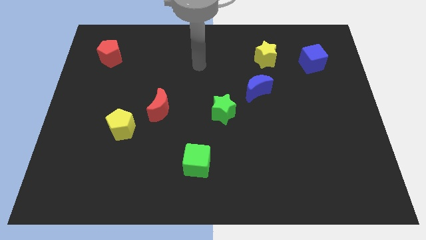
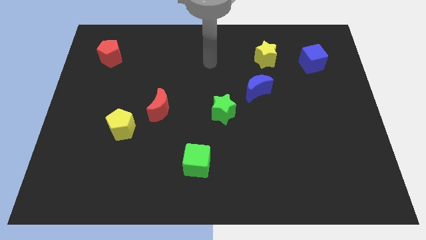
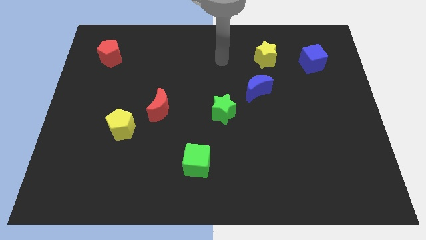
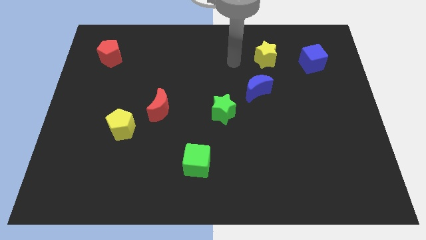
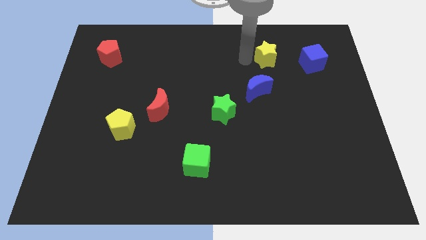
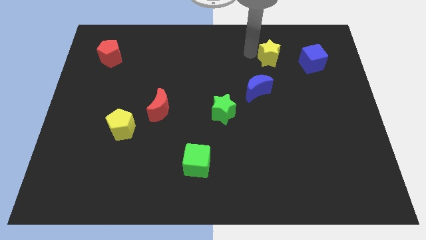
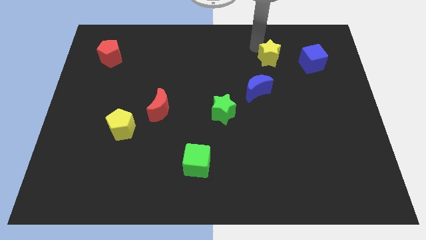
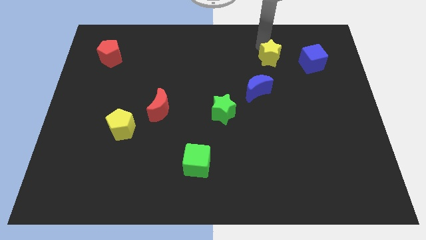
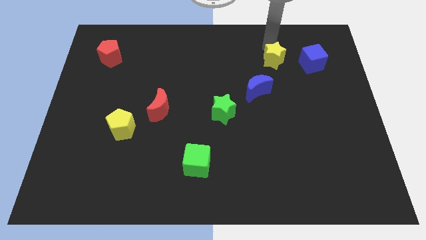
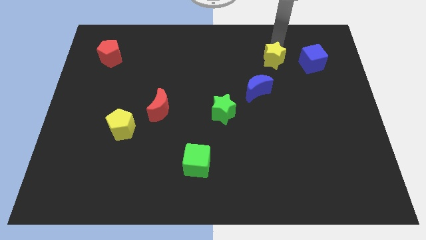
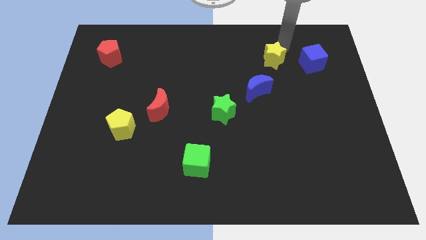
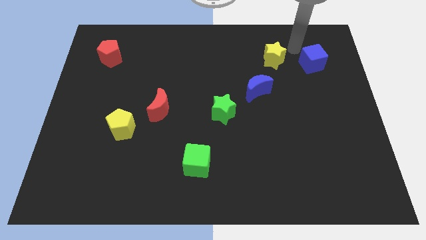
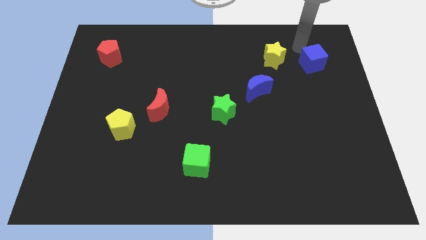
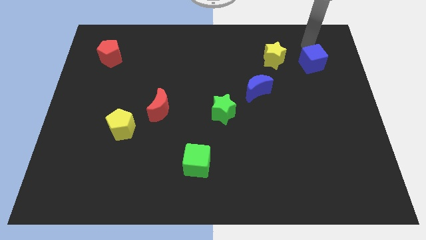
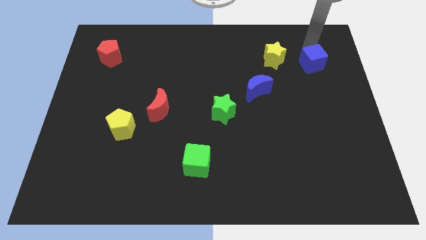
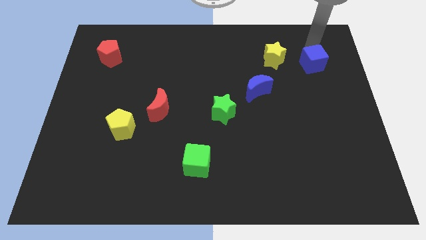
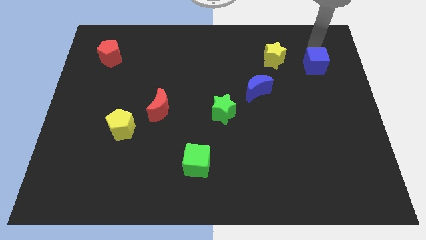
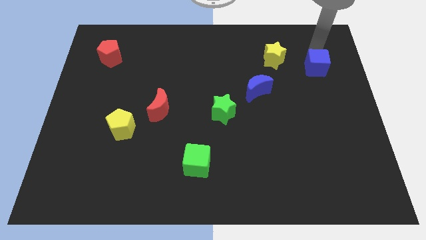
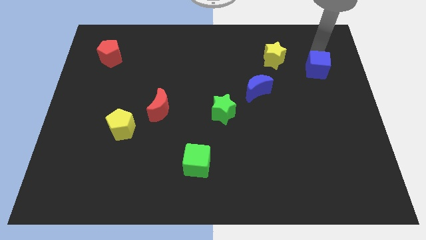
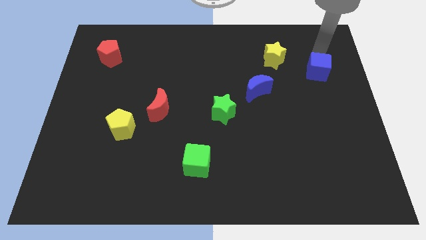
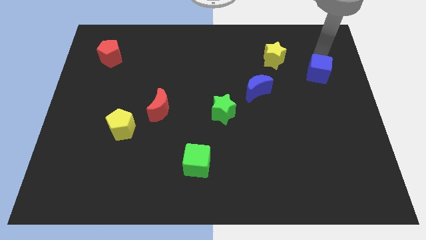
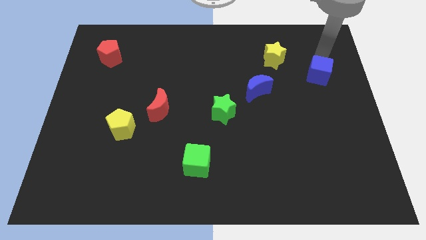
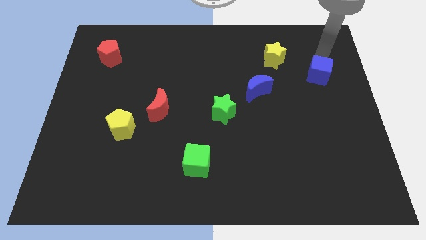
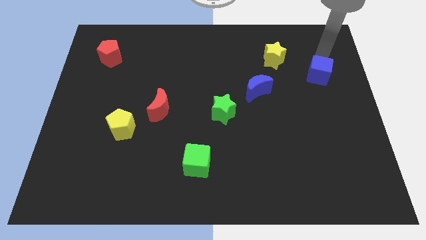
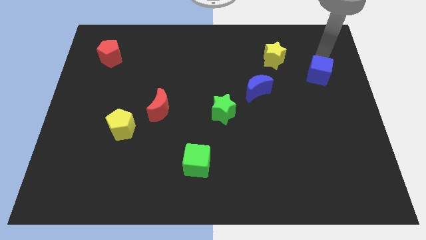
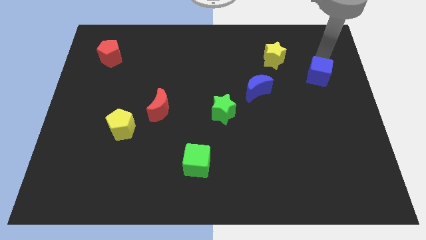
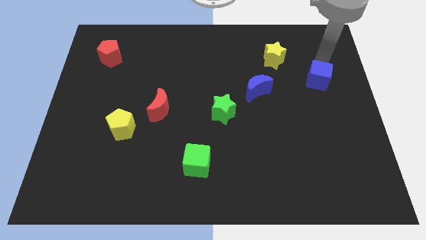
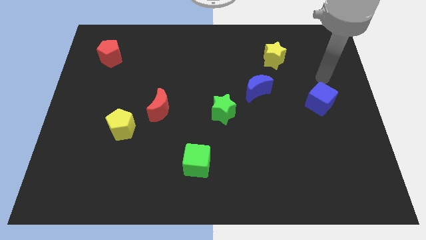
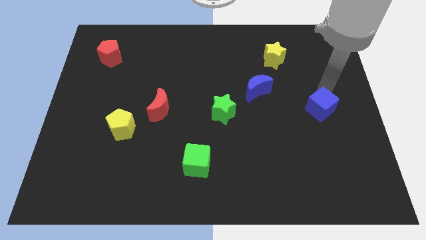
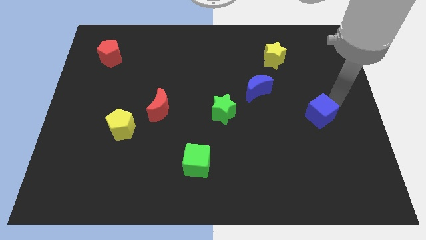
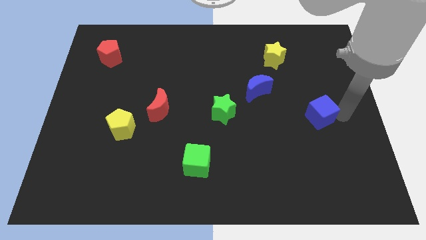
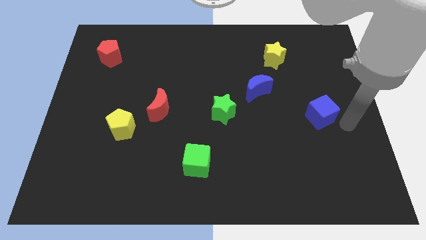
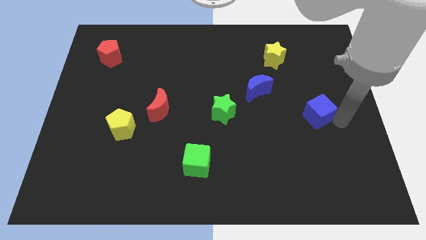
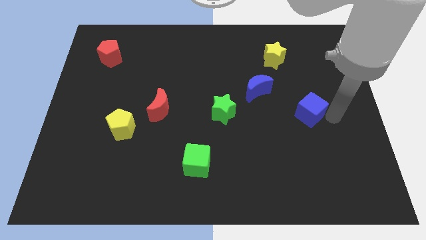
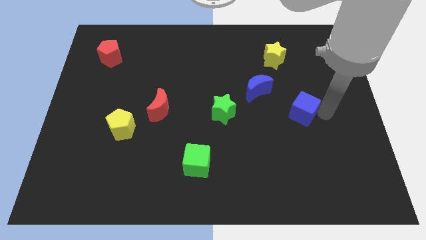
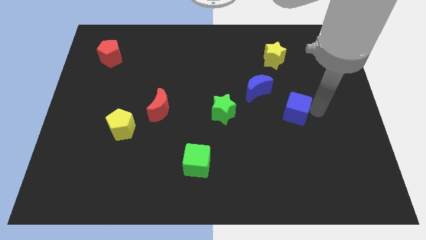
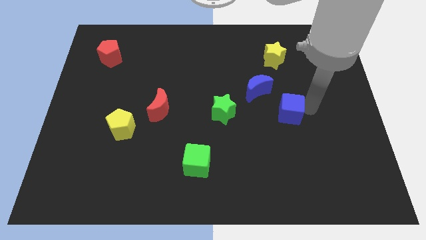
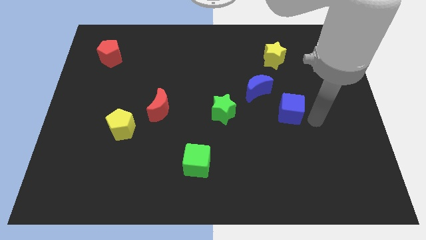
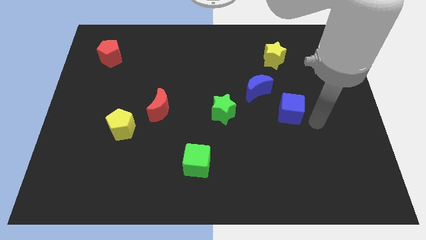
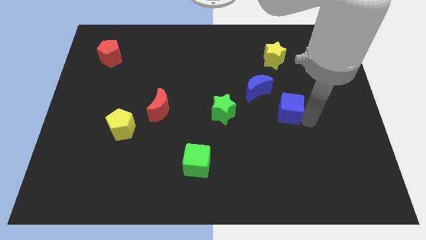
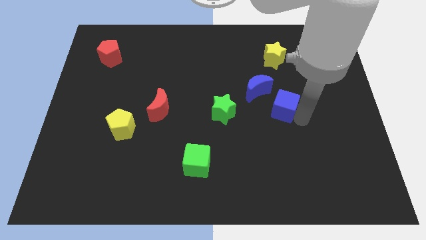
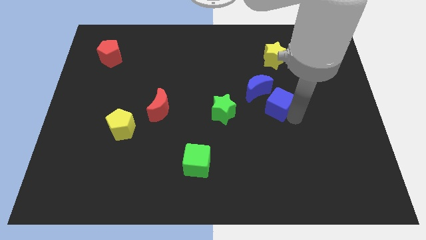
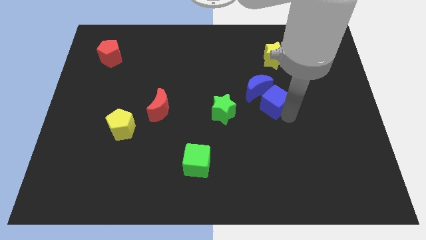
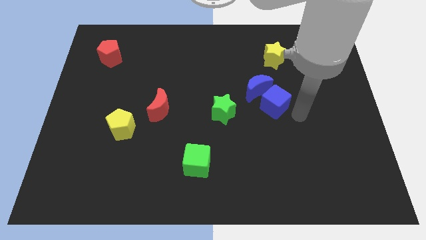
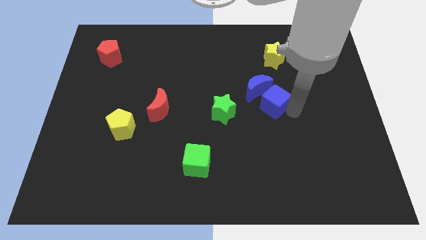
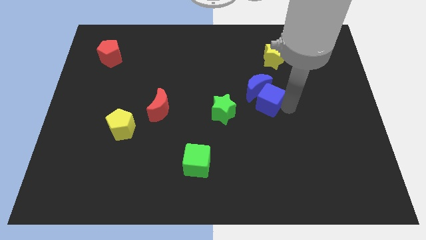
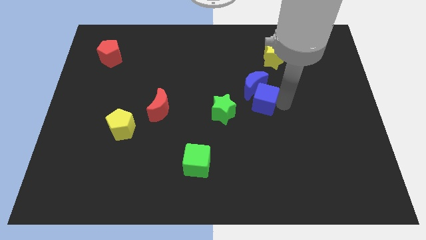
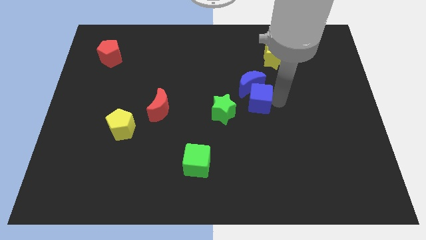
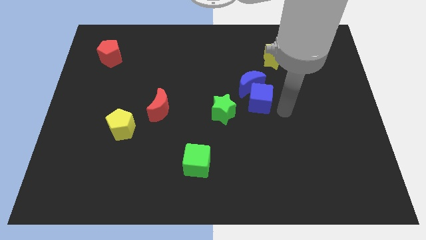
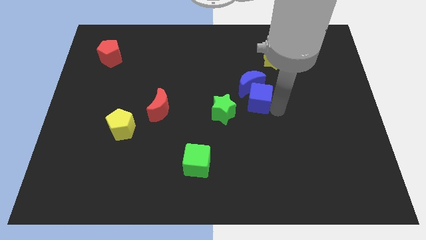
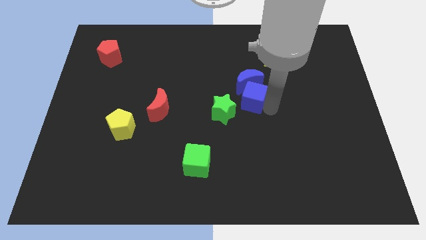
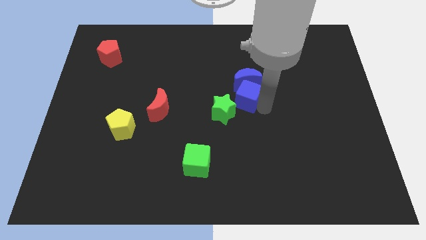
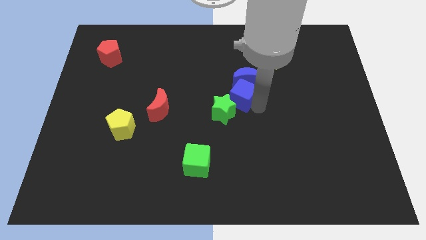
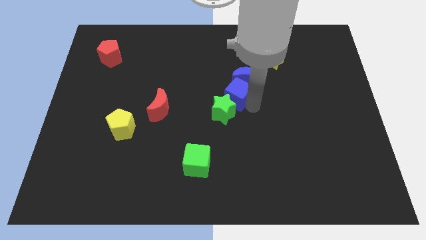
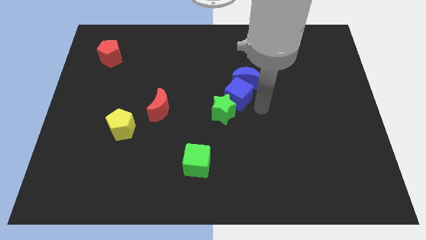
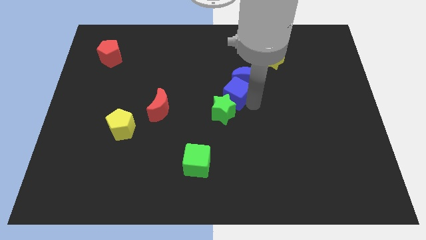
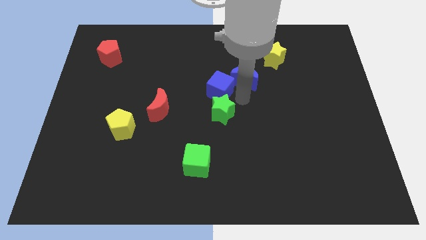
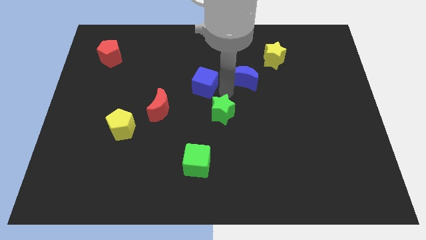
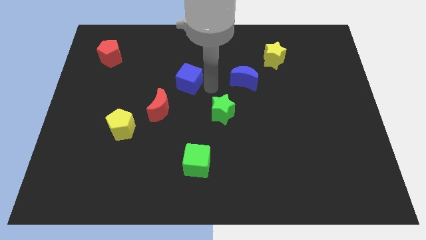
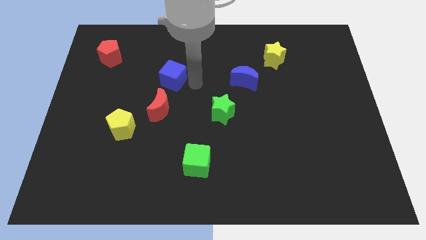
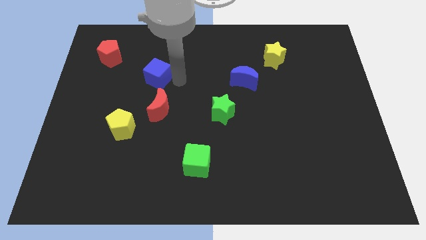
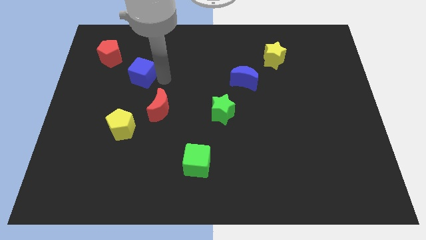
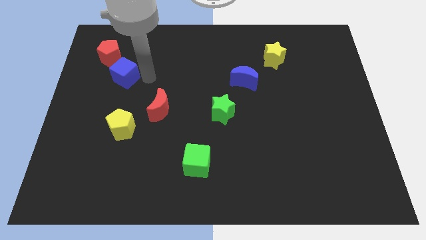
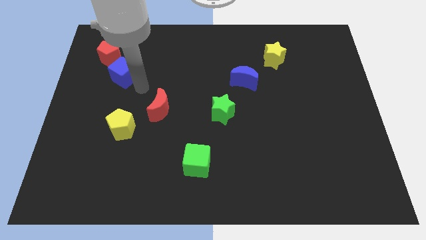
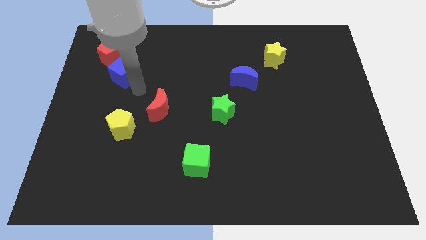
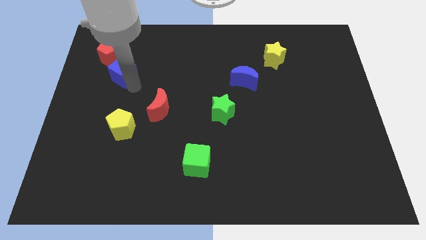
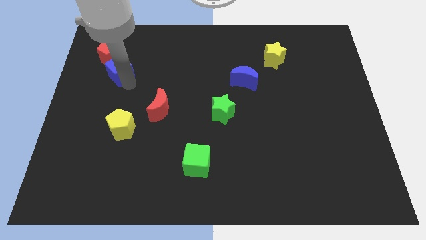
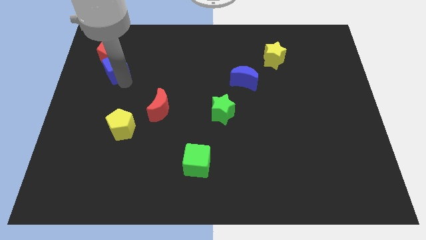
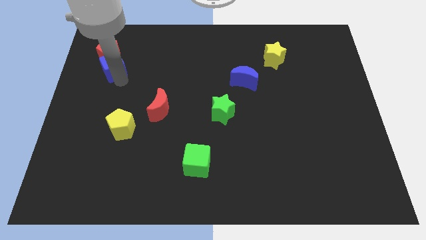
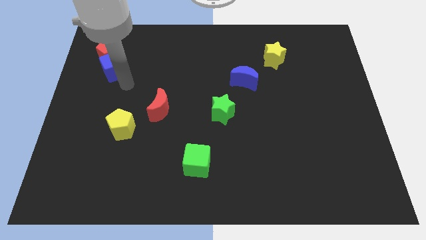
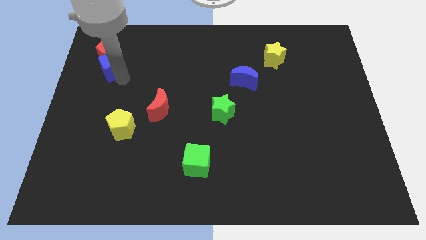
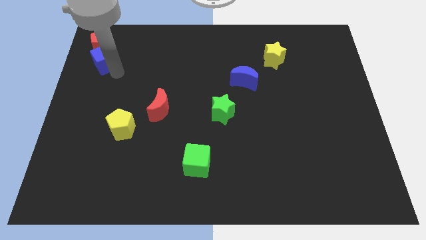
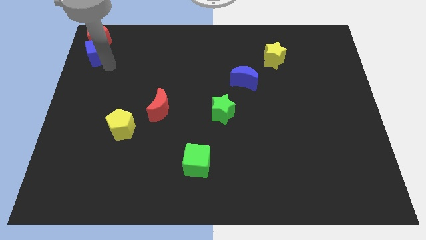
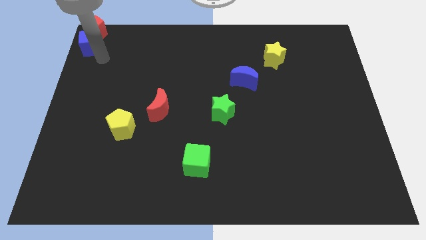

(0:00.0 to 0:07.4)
move the blue cube to the top left corner
